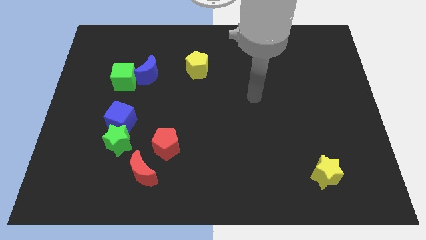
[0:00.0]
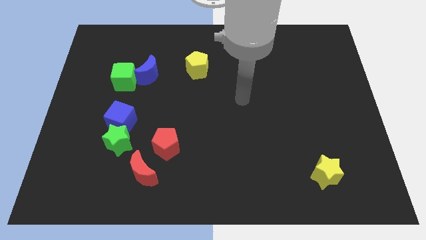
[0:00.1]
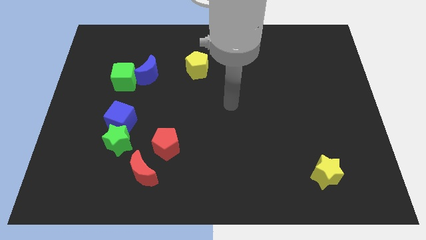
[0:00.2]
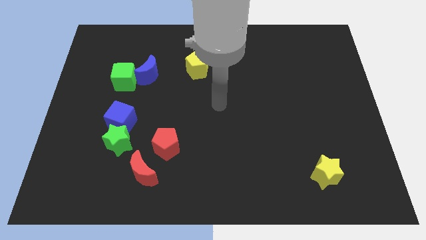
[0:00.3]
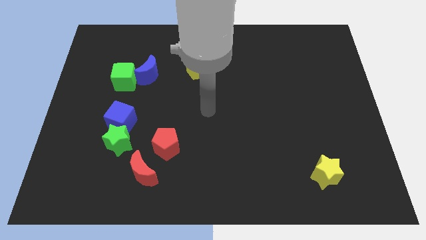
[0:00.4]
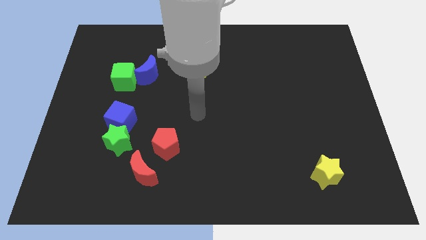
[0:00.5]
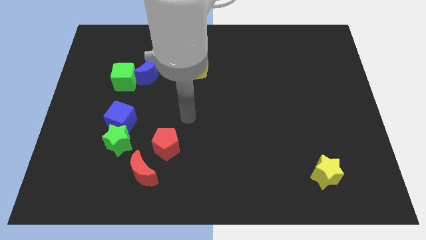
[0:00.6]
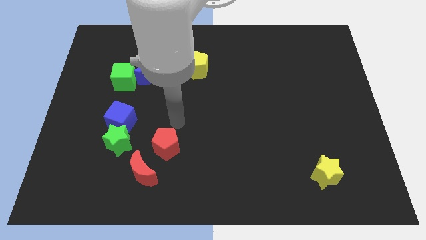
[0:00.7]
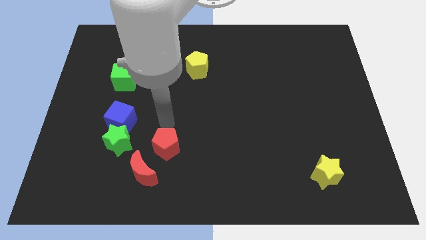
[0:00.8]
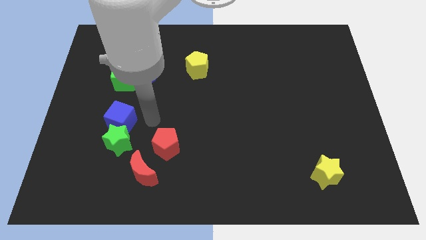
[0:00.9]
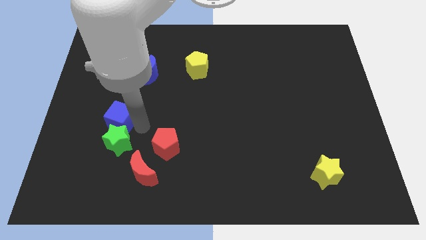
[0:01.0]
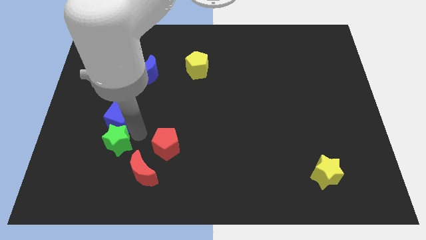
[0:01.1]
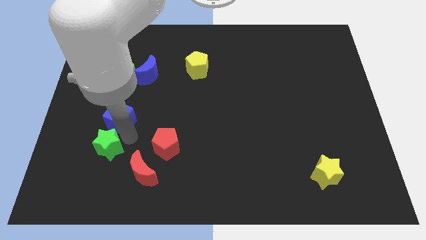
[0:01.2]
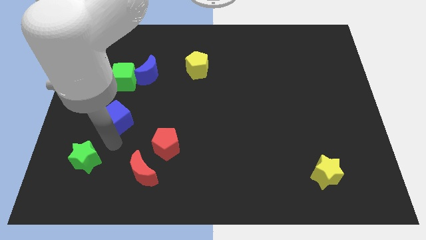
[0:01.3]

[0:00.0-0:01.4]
separate the blue cube from the green star

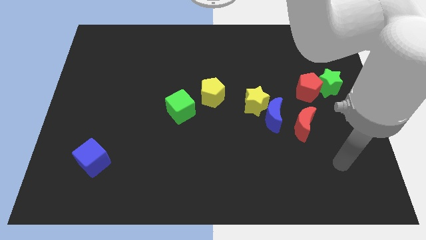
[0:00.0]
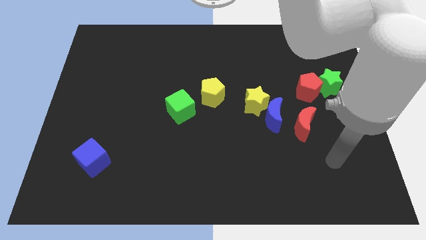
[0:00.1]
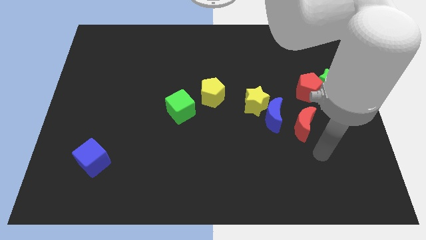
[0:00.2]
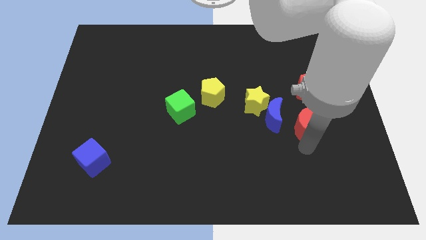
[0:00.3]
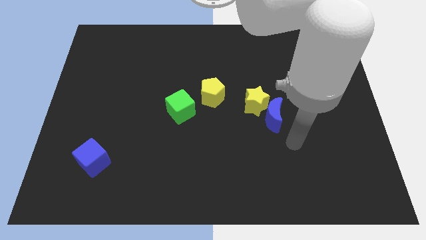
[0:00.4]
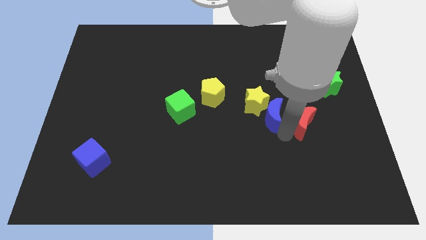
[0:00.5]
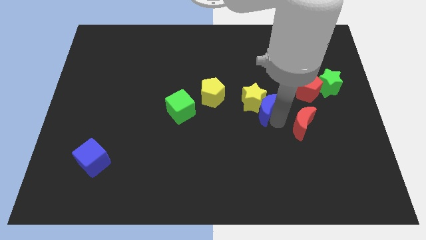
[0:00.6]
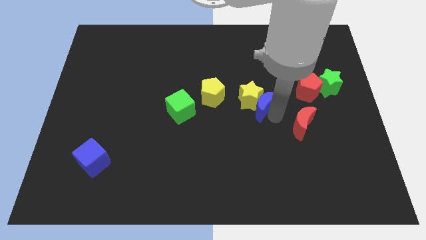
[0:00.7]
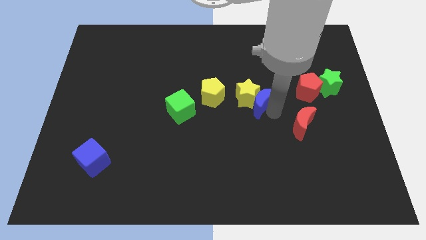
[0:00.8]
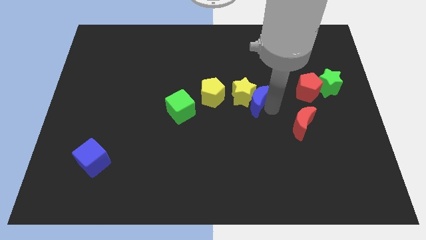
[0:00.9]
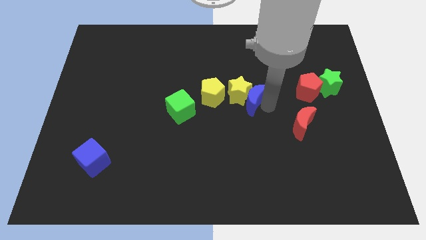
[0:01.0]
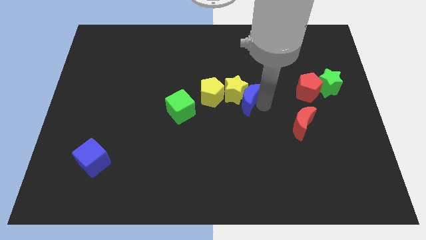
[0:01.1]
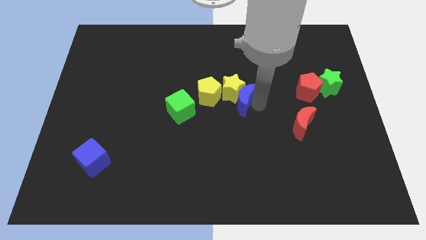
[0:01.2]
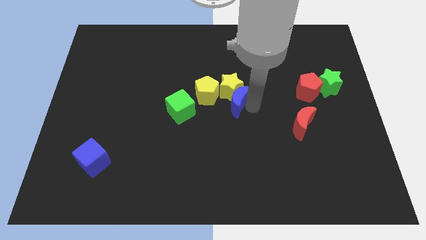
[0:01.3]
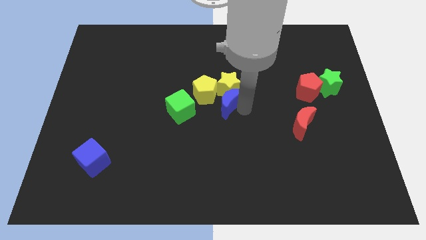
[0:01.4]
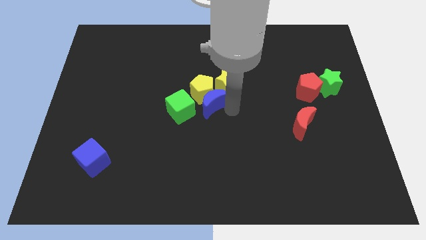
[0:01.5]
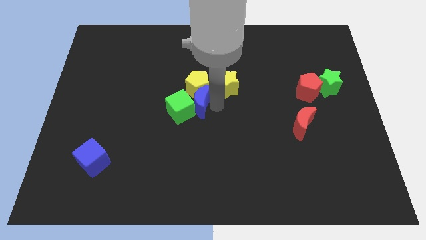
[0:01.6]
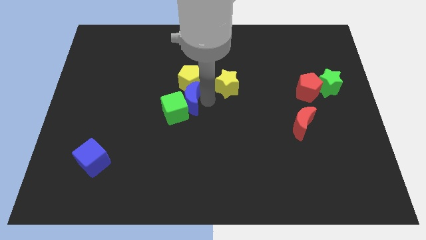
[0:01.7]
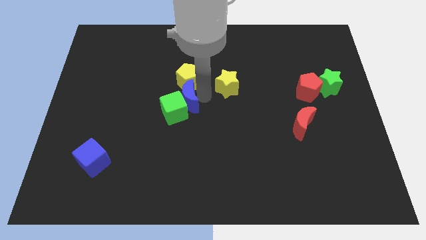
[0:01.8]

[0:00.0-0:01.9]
separate the yellow star from the blue moon

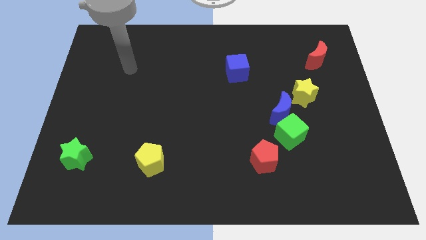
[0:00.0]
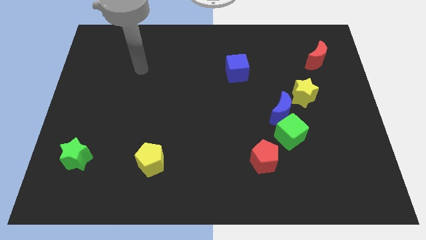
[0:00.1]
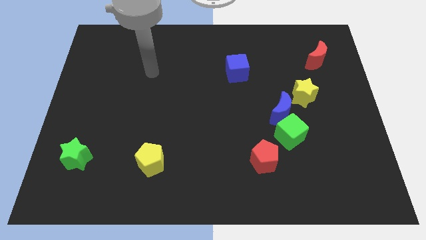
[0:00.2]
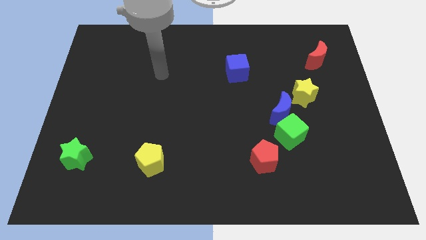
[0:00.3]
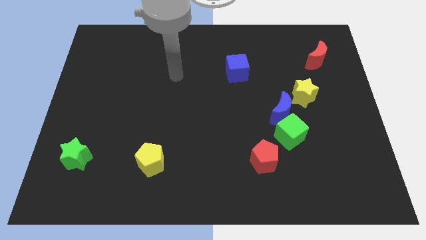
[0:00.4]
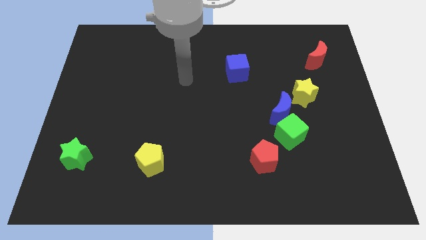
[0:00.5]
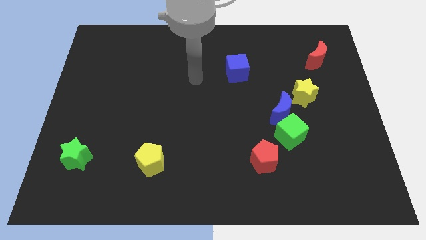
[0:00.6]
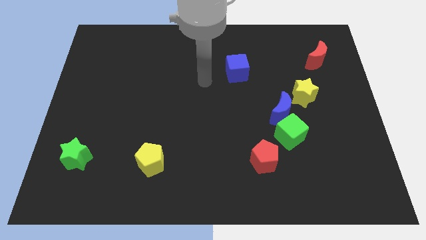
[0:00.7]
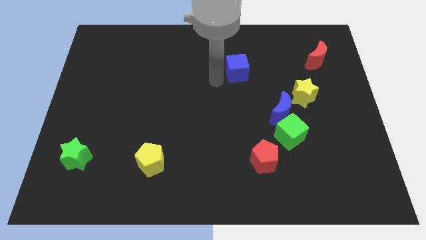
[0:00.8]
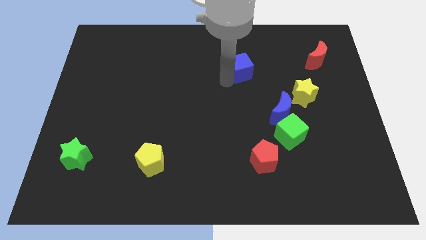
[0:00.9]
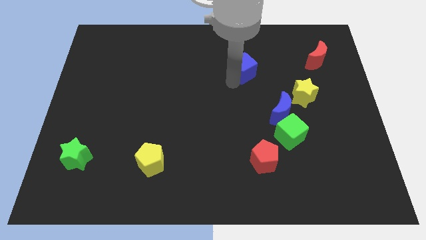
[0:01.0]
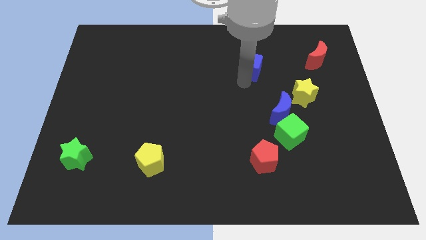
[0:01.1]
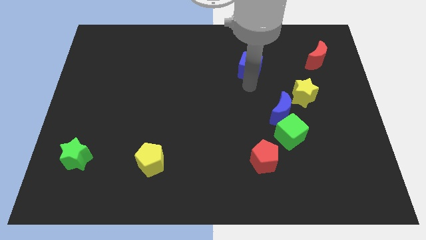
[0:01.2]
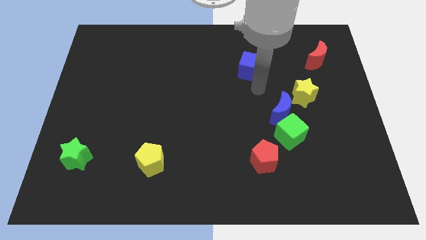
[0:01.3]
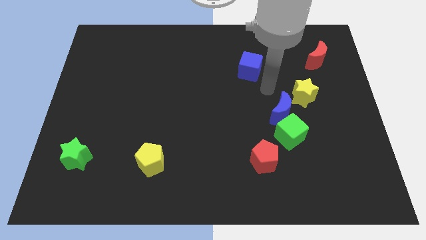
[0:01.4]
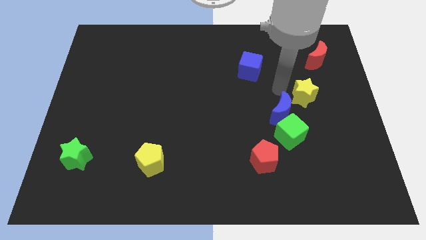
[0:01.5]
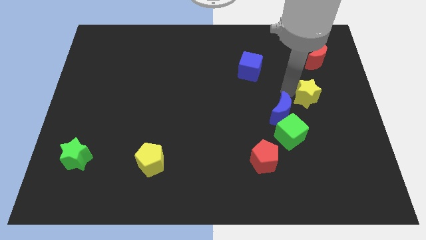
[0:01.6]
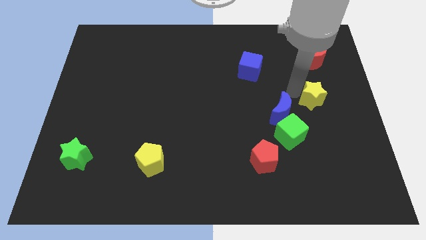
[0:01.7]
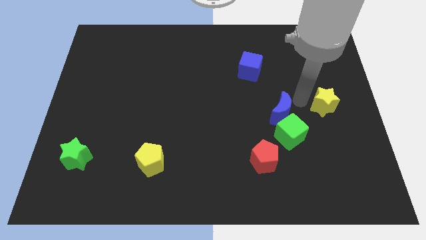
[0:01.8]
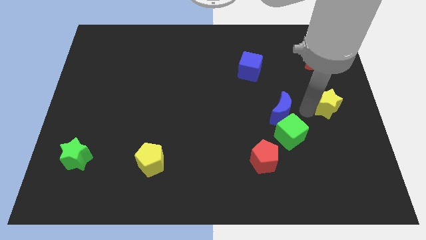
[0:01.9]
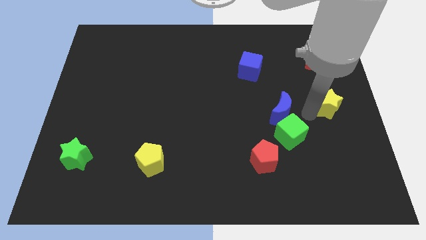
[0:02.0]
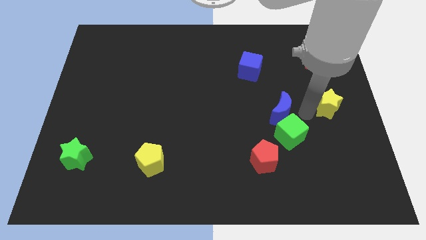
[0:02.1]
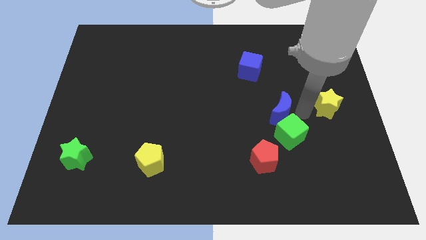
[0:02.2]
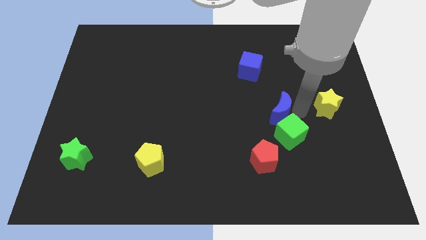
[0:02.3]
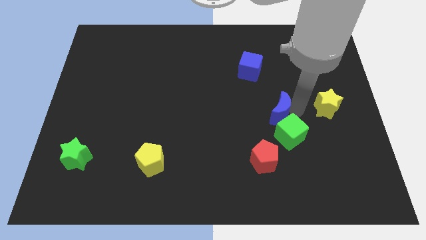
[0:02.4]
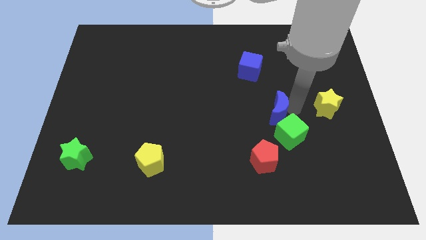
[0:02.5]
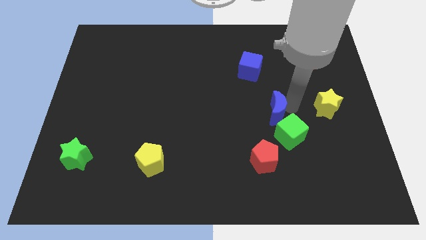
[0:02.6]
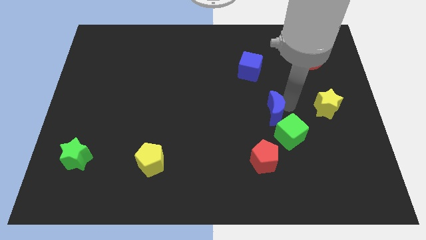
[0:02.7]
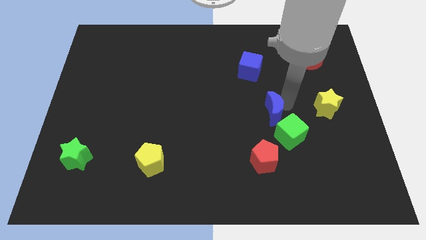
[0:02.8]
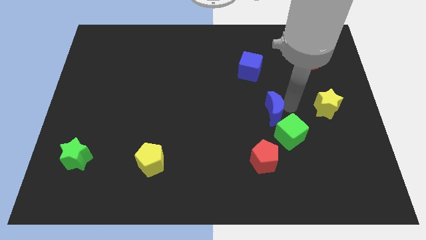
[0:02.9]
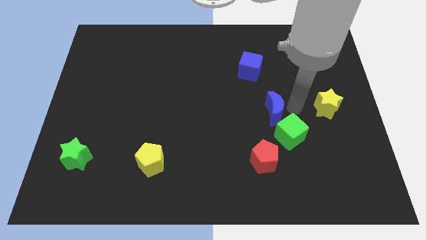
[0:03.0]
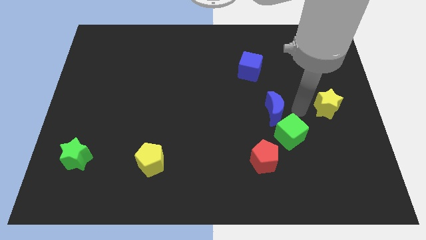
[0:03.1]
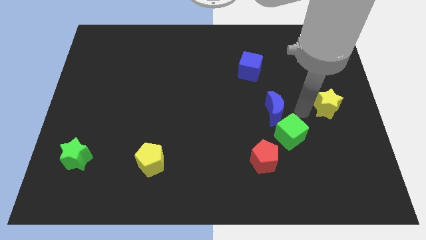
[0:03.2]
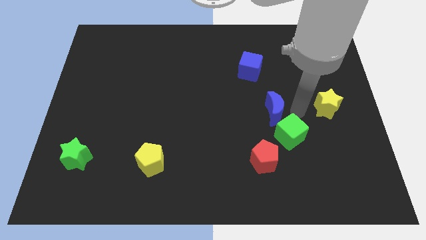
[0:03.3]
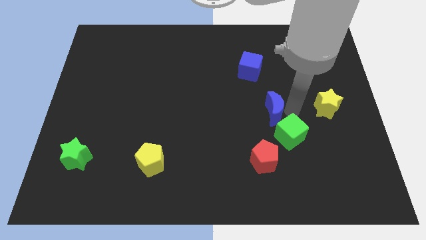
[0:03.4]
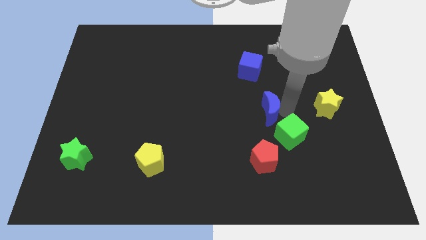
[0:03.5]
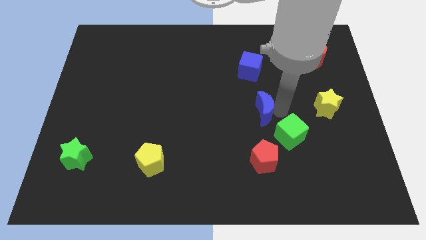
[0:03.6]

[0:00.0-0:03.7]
separate the blue moon from the green cube and yellow star

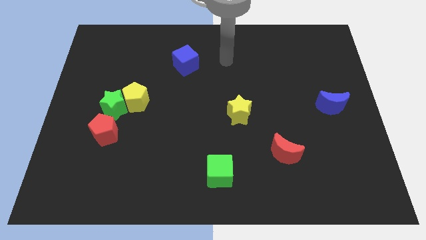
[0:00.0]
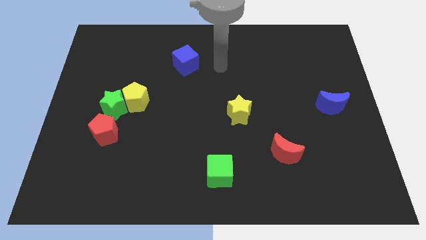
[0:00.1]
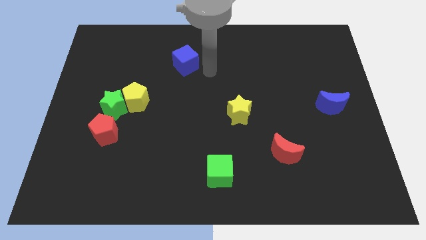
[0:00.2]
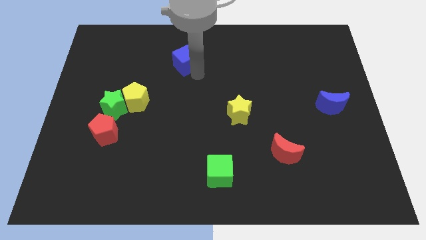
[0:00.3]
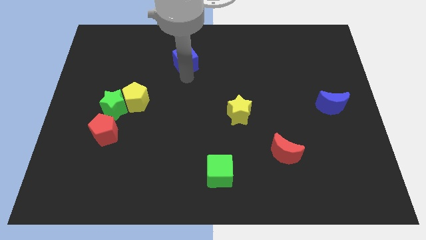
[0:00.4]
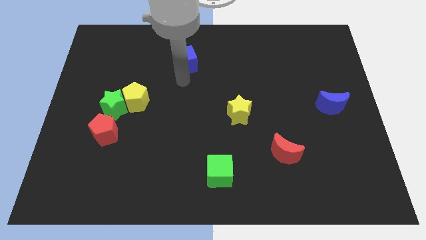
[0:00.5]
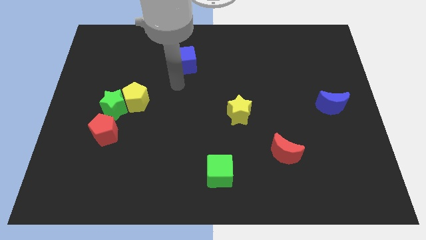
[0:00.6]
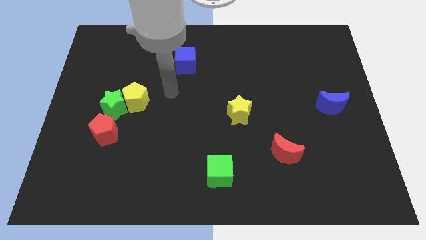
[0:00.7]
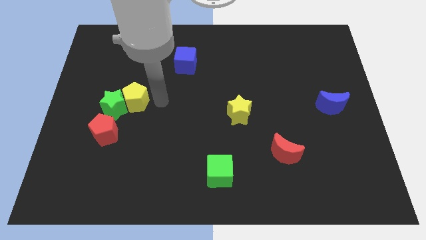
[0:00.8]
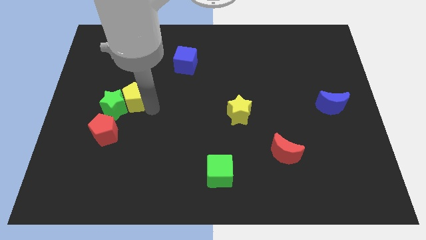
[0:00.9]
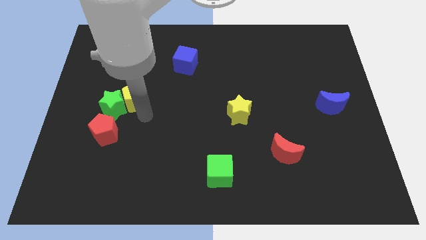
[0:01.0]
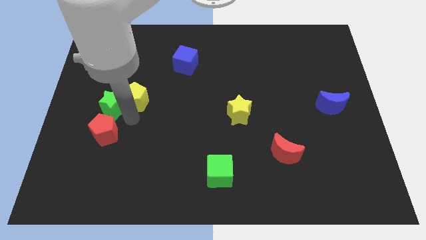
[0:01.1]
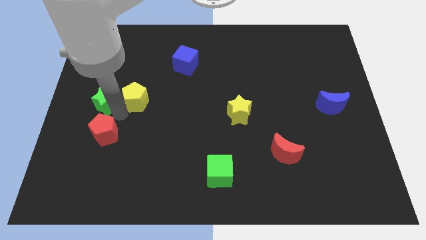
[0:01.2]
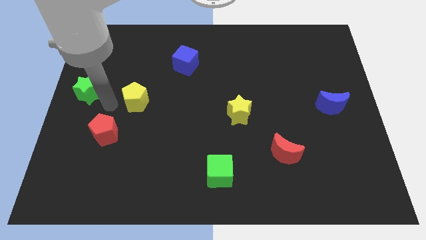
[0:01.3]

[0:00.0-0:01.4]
move the yellow pentagon away from the green star

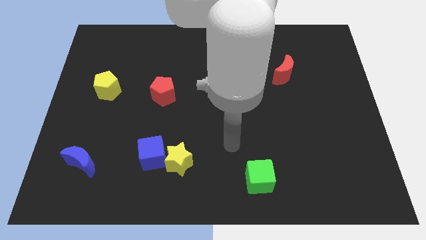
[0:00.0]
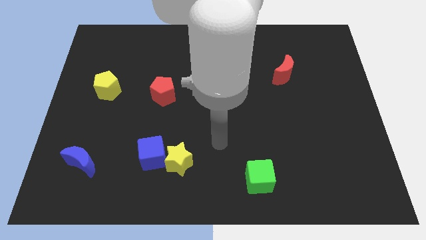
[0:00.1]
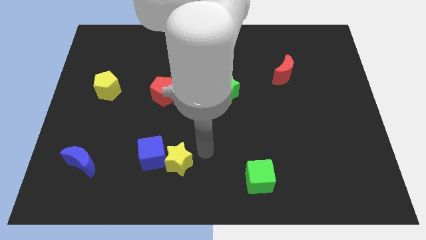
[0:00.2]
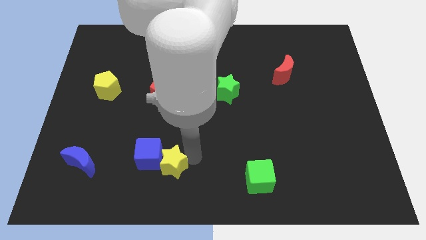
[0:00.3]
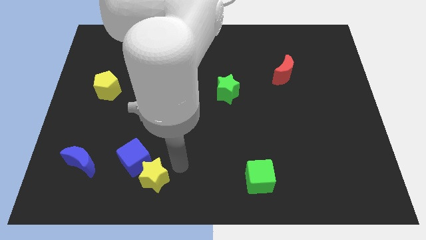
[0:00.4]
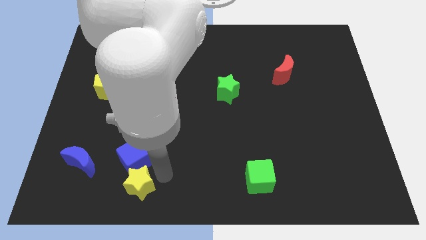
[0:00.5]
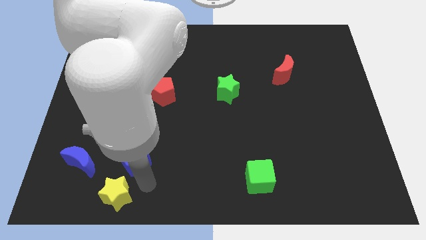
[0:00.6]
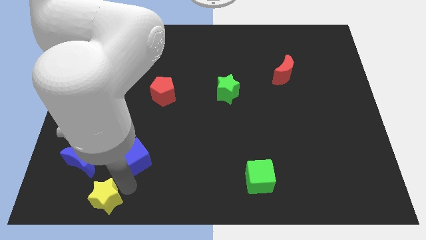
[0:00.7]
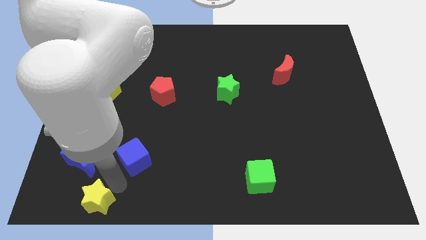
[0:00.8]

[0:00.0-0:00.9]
pull the blue cube apart from the yellow star
